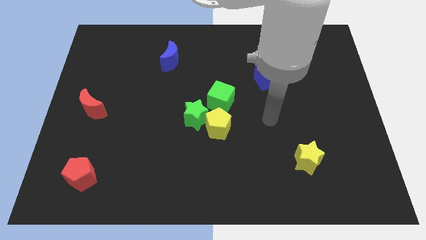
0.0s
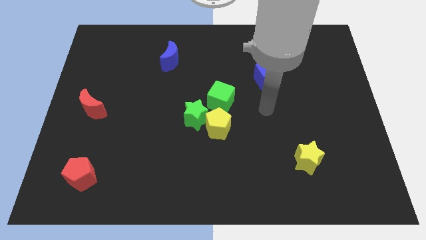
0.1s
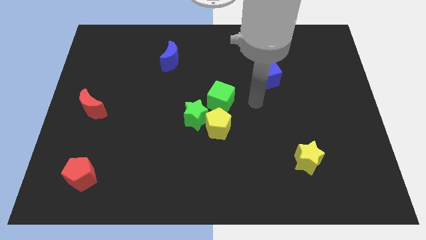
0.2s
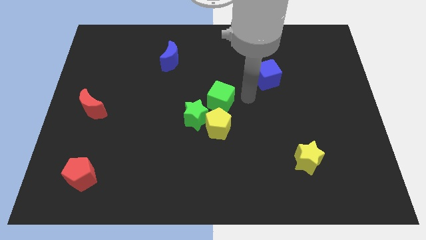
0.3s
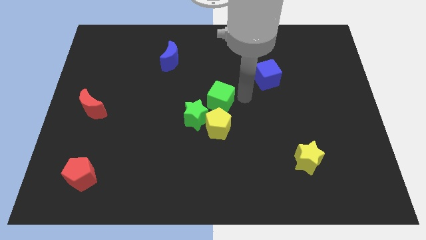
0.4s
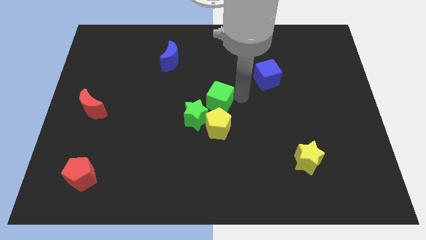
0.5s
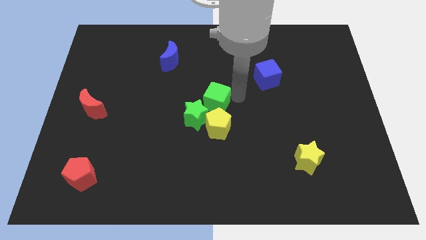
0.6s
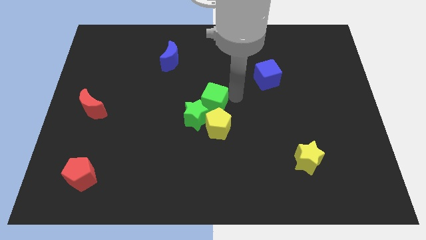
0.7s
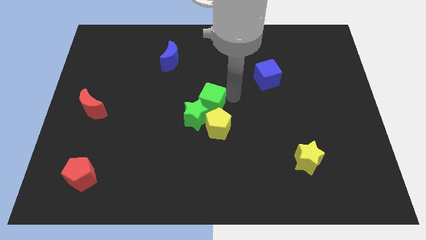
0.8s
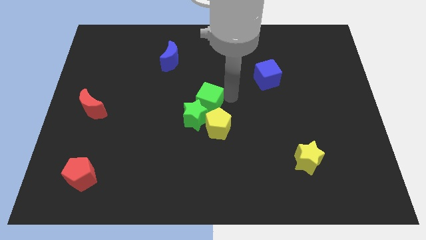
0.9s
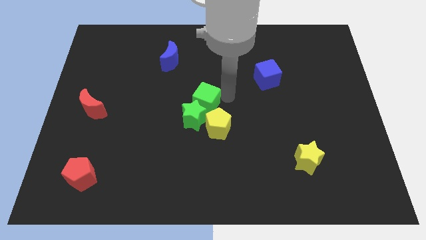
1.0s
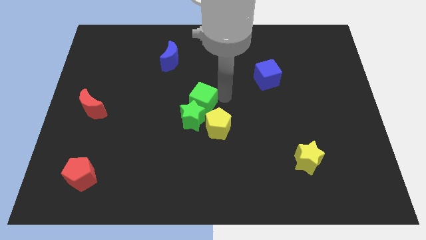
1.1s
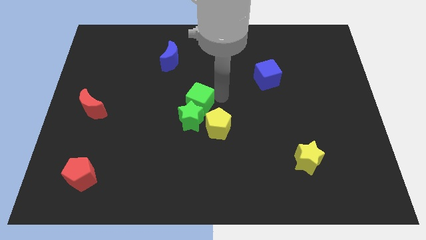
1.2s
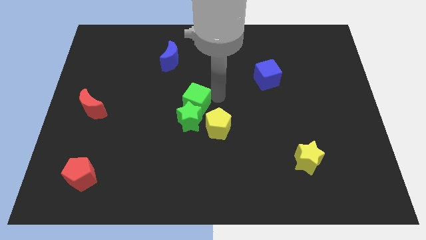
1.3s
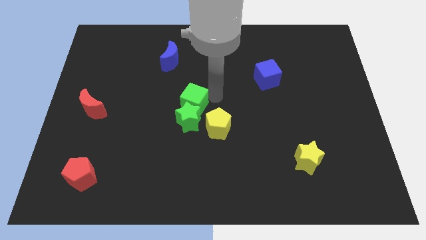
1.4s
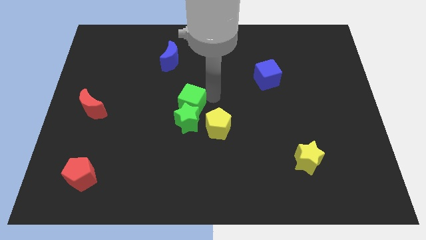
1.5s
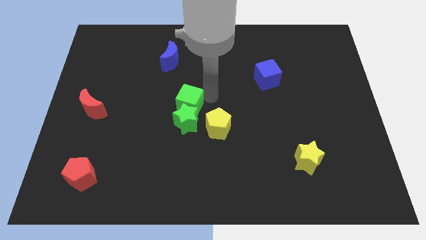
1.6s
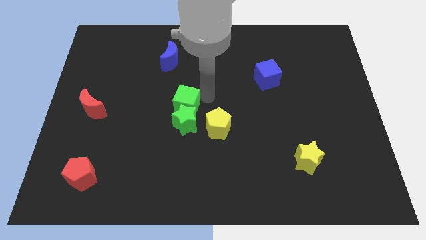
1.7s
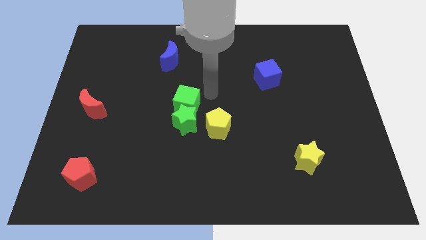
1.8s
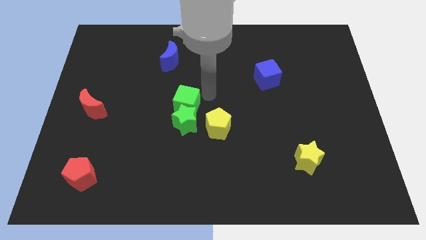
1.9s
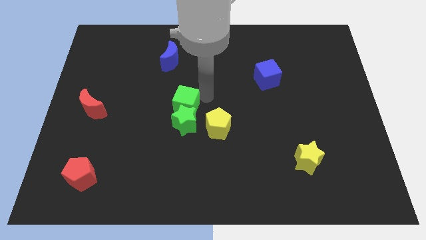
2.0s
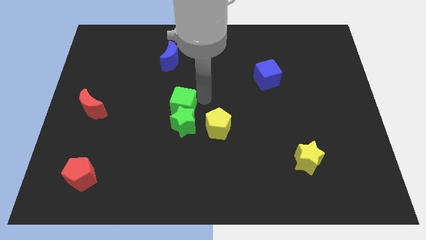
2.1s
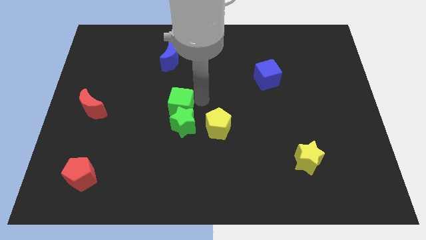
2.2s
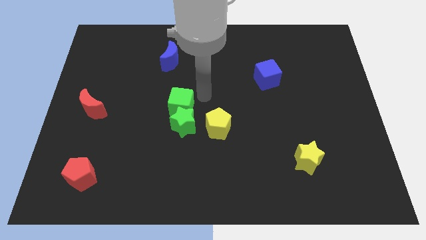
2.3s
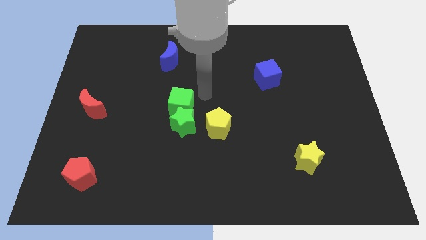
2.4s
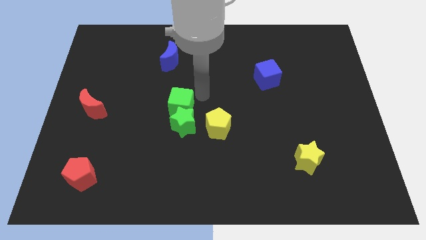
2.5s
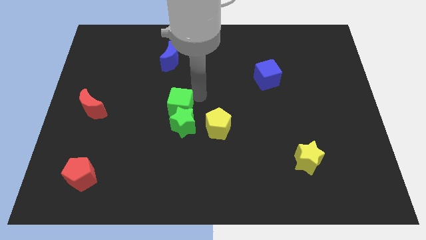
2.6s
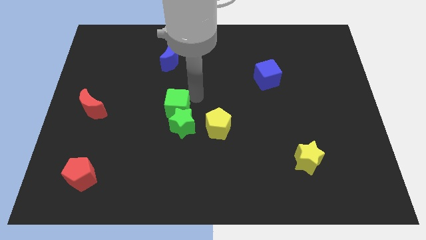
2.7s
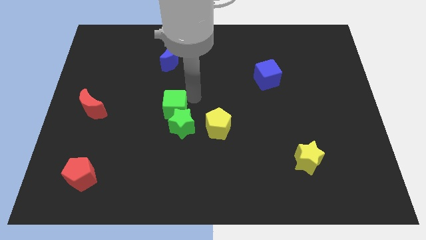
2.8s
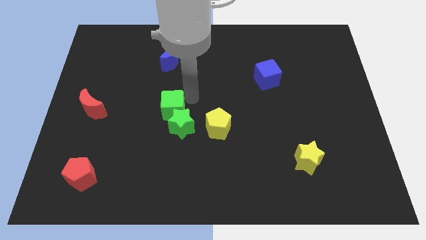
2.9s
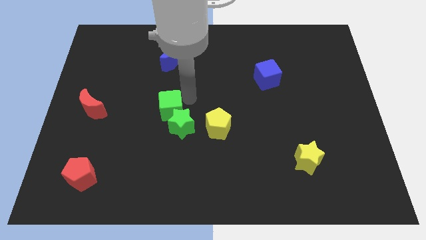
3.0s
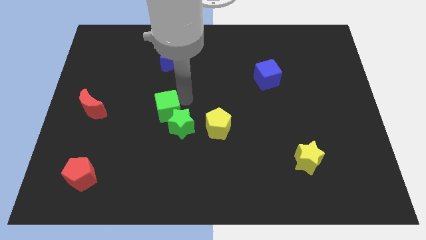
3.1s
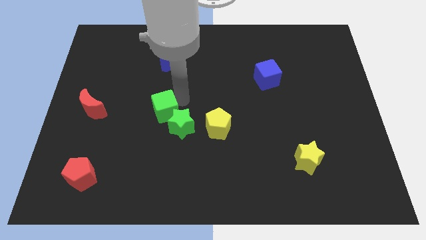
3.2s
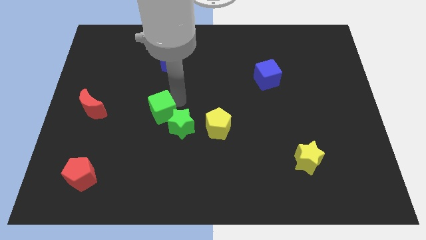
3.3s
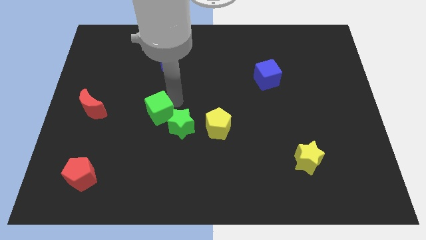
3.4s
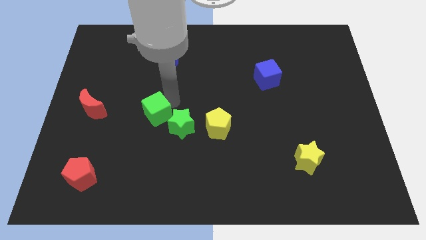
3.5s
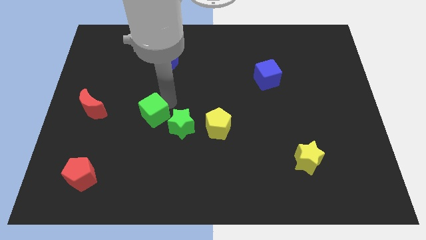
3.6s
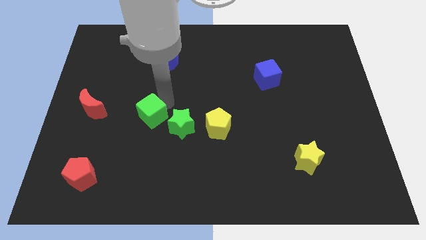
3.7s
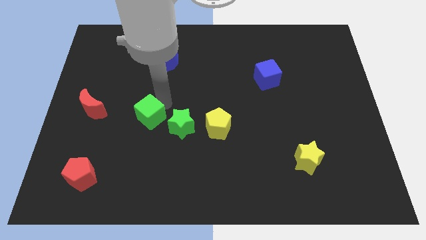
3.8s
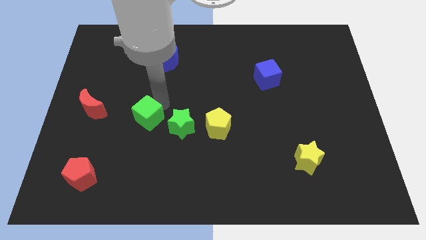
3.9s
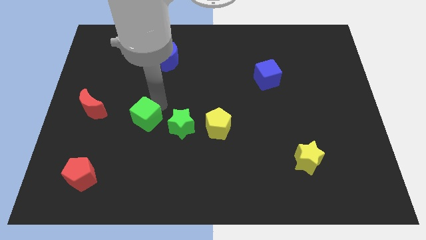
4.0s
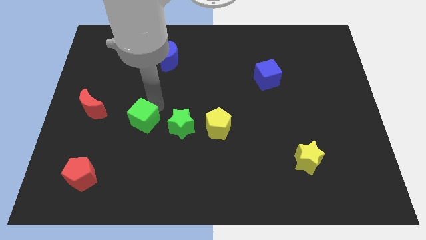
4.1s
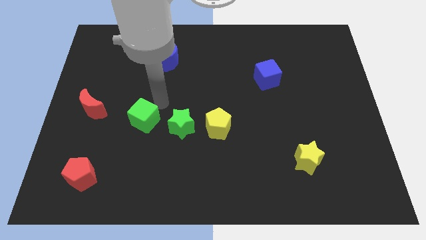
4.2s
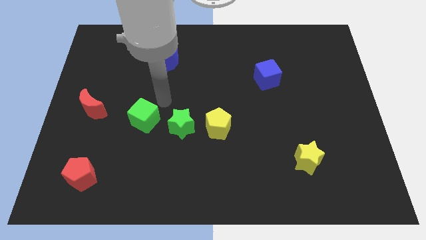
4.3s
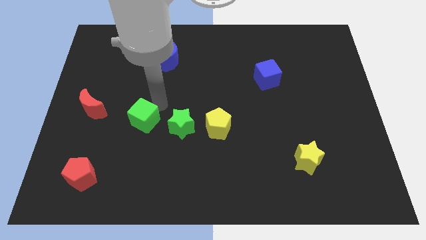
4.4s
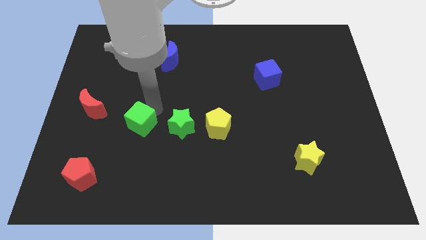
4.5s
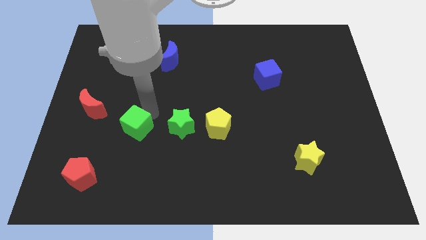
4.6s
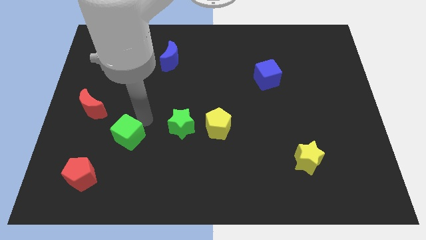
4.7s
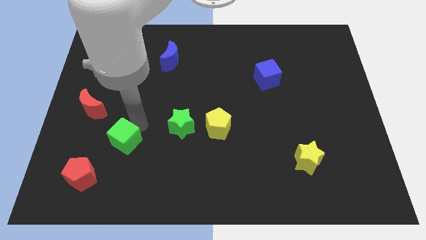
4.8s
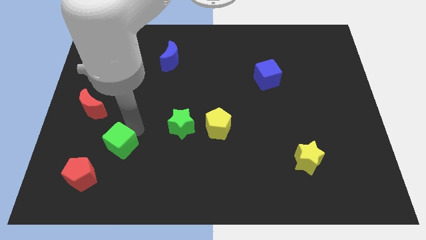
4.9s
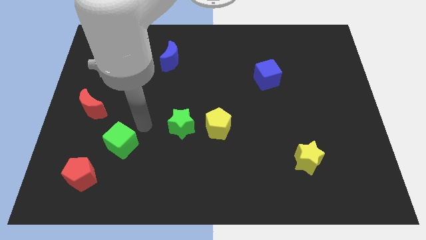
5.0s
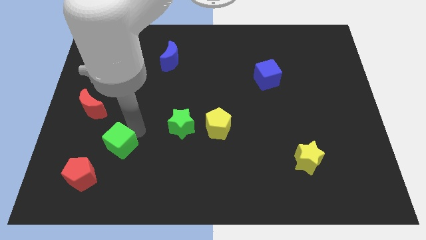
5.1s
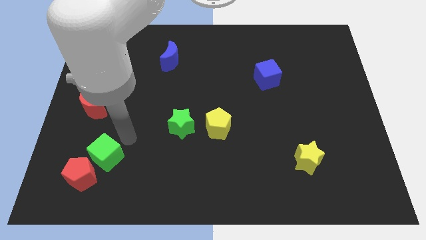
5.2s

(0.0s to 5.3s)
move the green cube towards the red pentagon

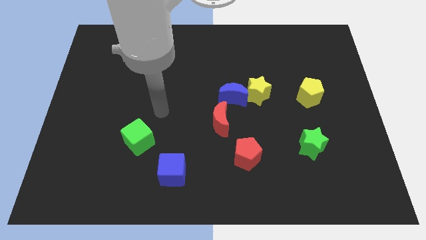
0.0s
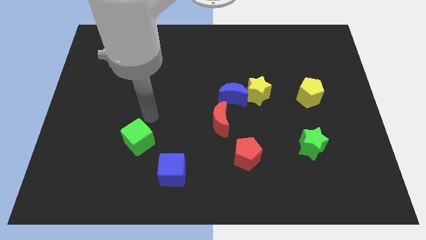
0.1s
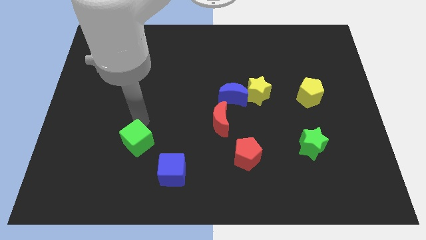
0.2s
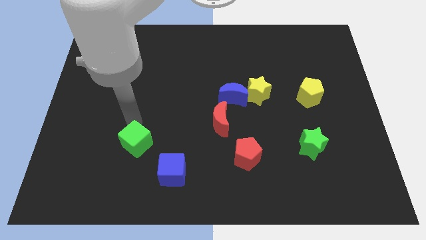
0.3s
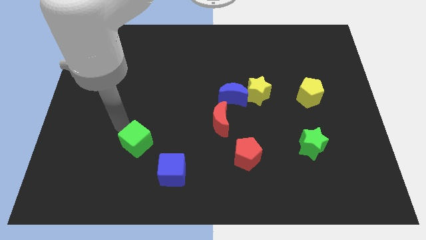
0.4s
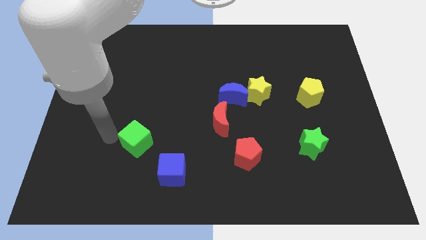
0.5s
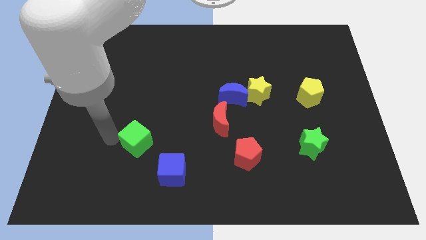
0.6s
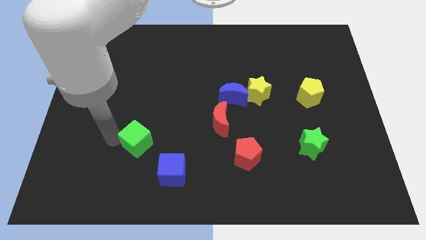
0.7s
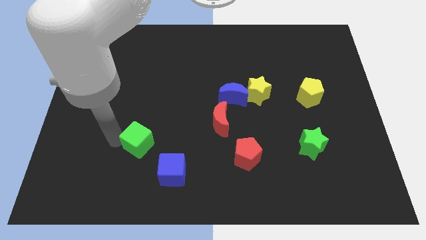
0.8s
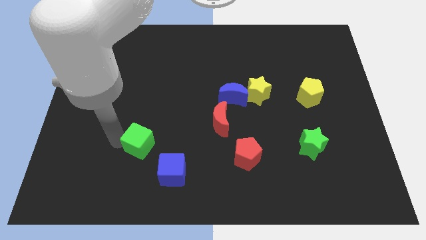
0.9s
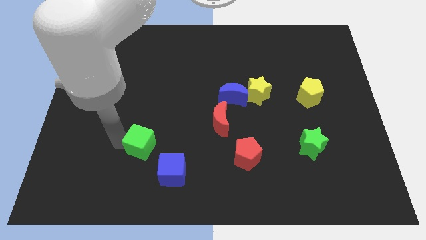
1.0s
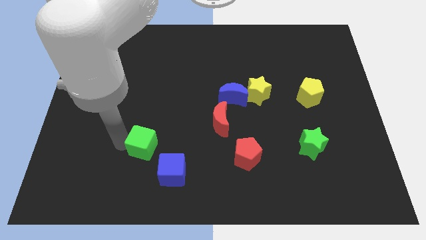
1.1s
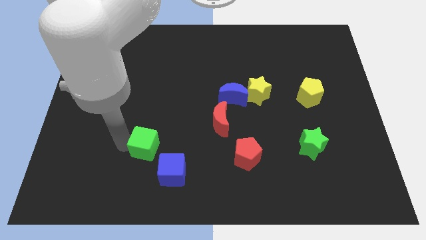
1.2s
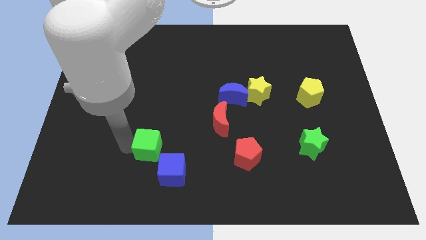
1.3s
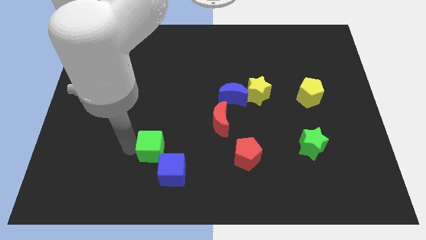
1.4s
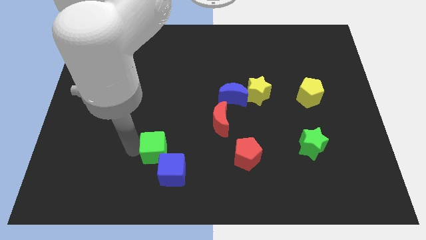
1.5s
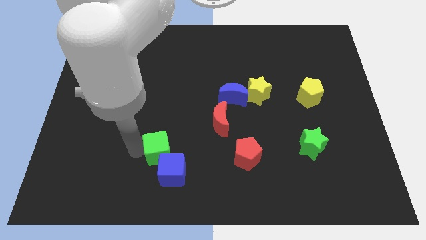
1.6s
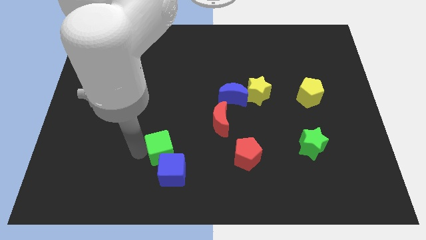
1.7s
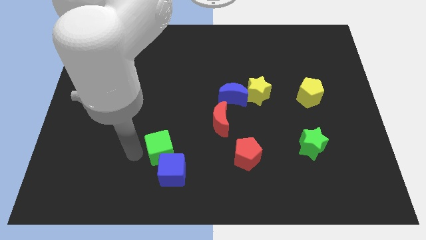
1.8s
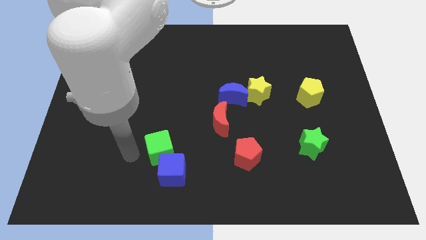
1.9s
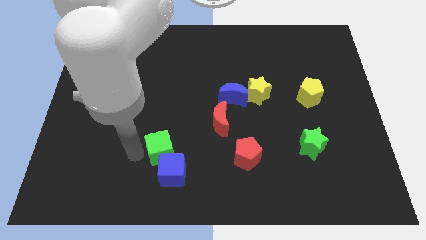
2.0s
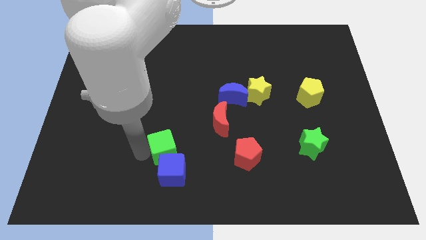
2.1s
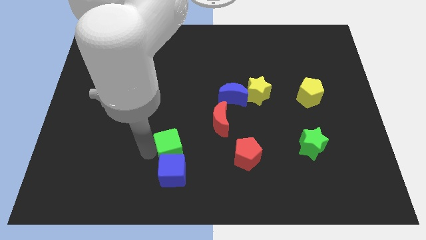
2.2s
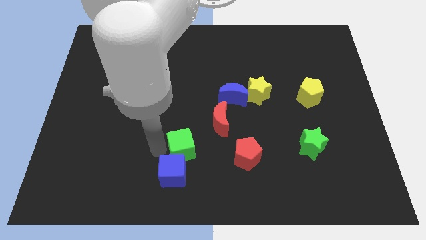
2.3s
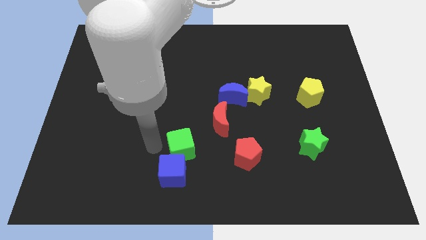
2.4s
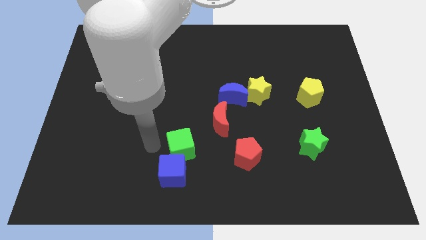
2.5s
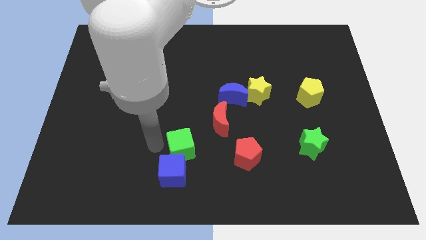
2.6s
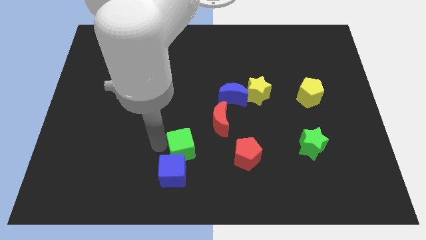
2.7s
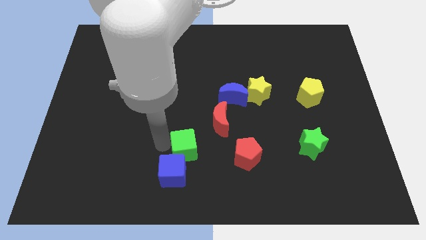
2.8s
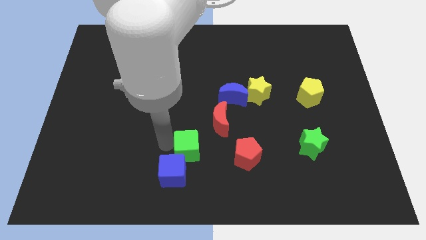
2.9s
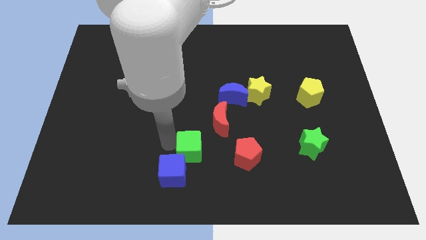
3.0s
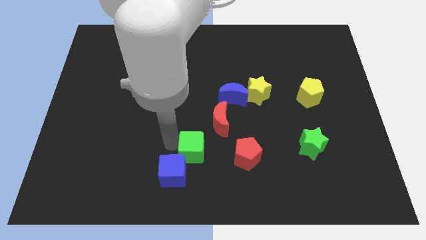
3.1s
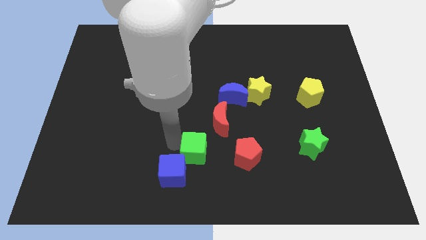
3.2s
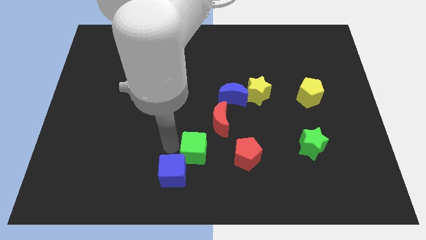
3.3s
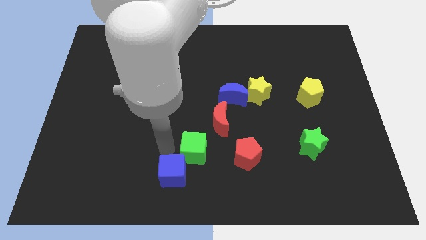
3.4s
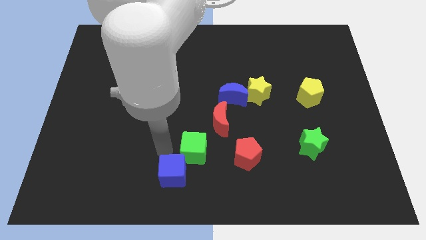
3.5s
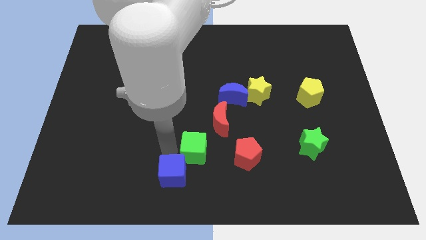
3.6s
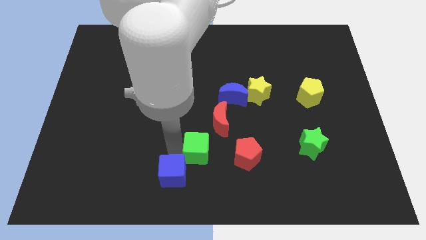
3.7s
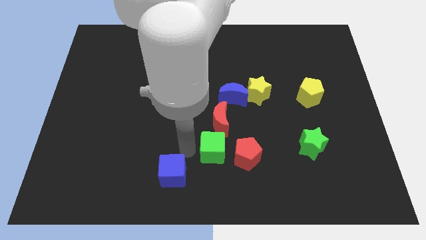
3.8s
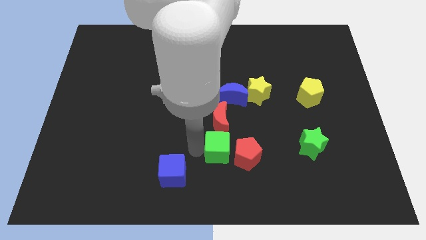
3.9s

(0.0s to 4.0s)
move the green cube next to the red pentagon
